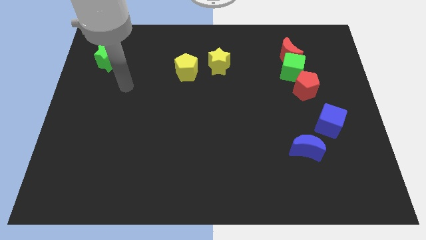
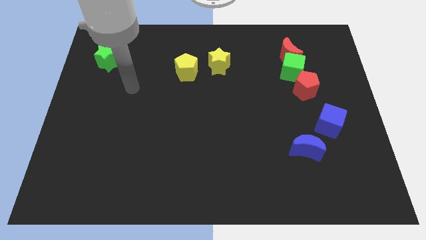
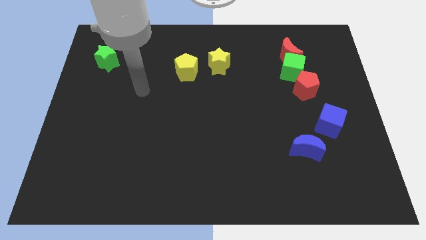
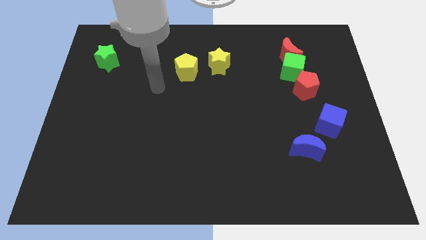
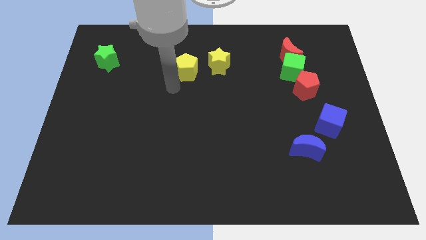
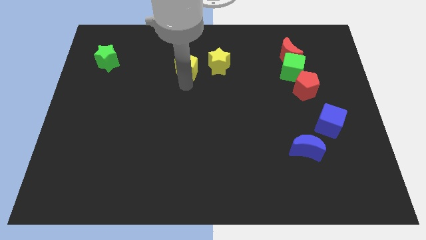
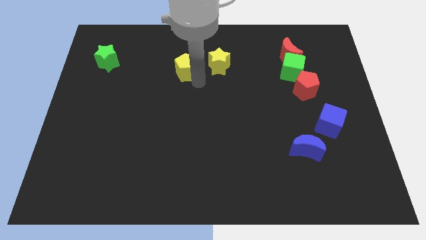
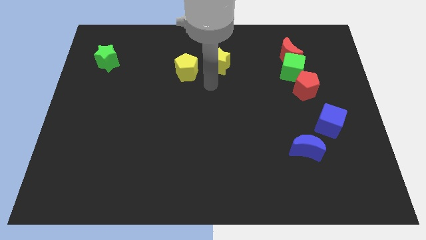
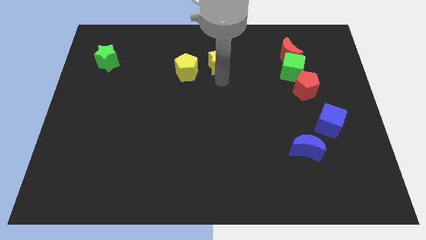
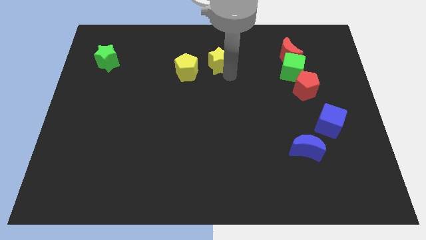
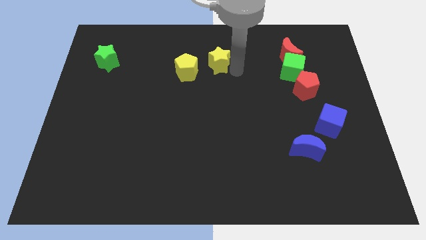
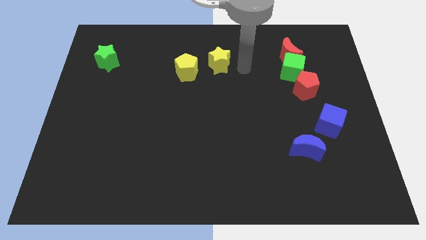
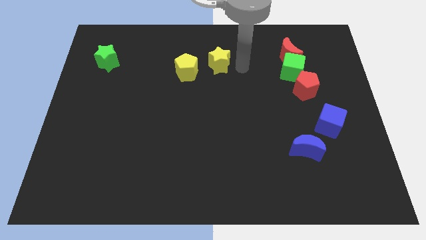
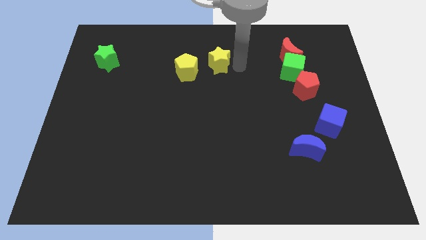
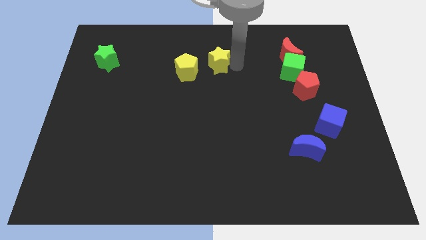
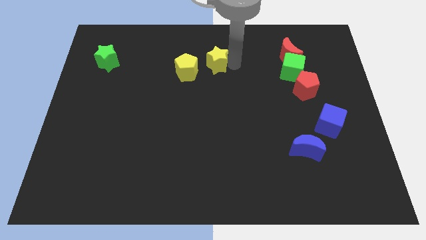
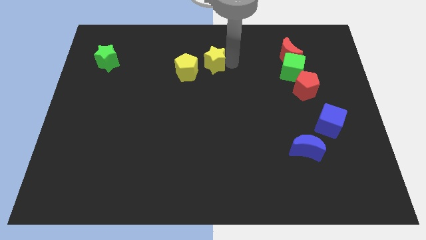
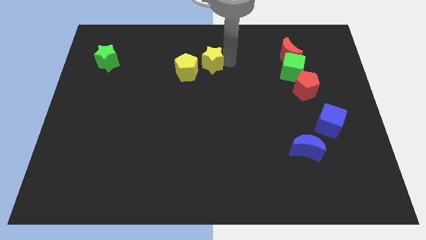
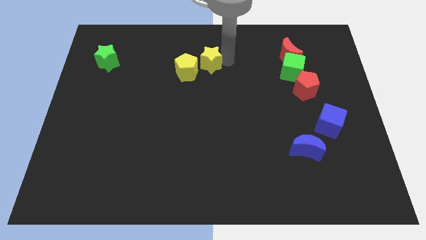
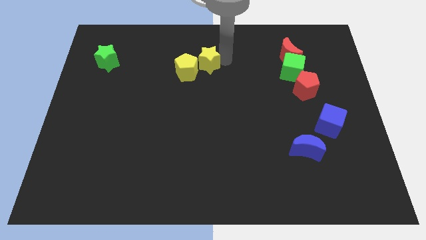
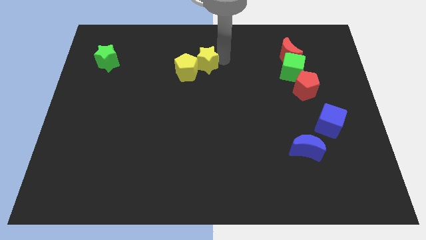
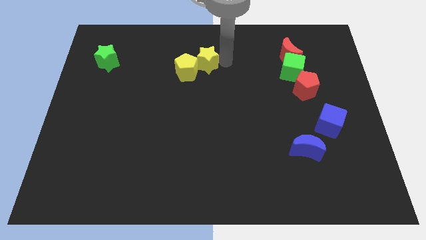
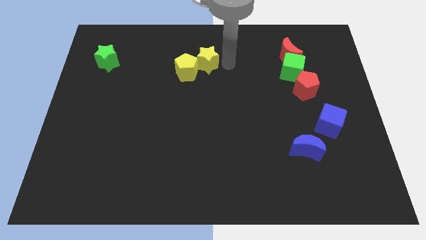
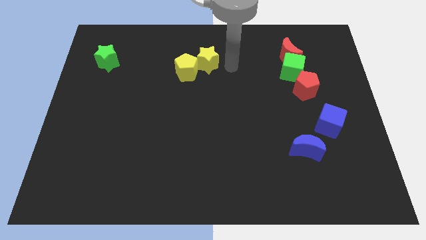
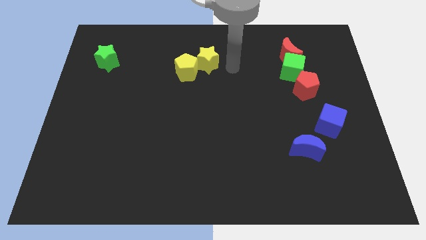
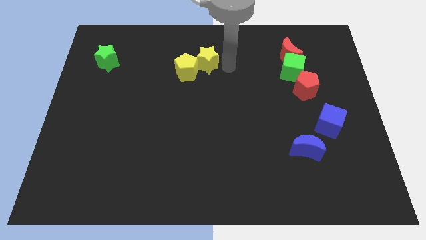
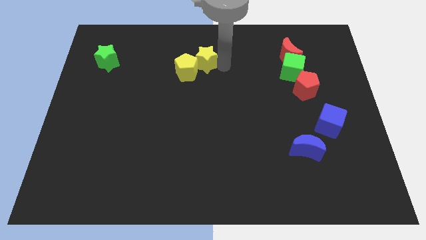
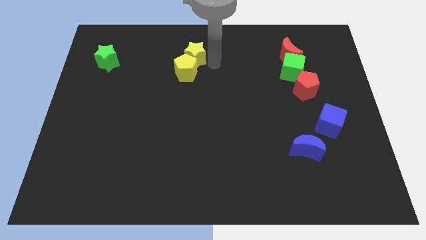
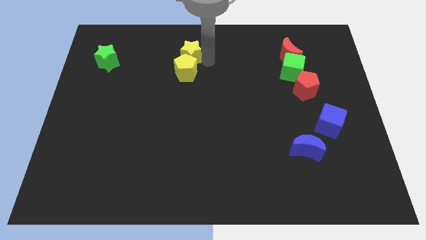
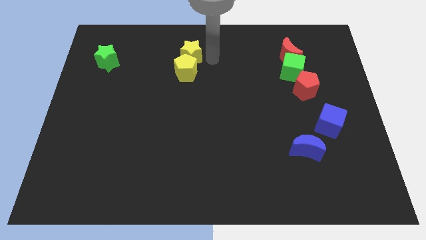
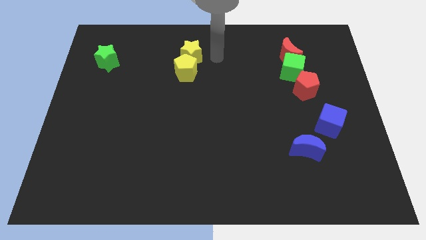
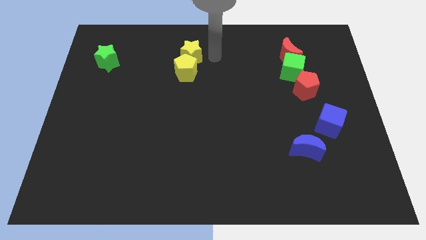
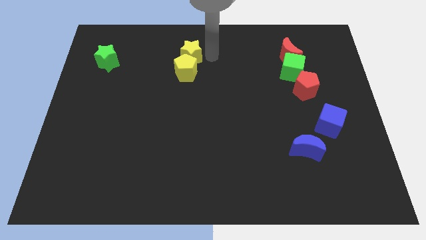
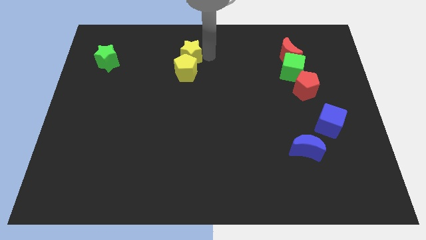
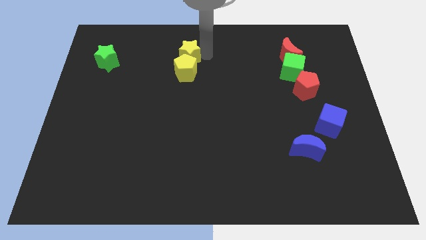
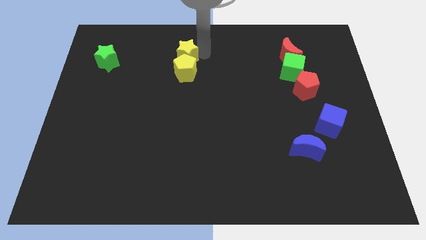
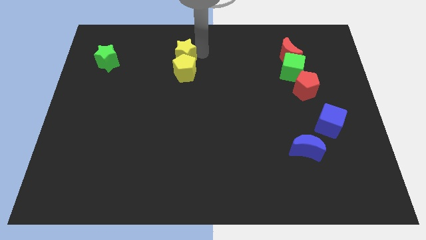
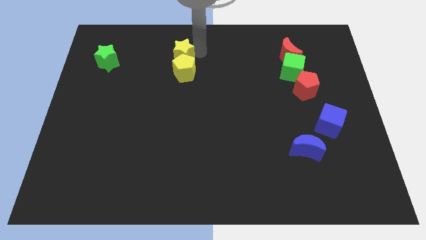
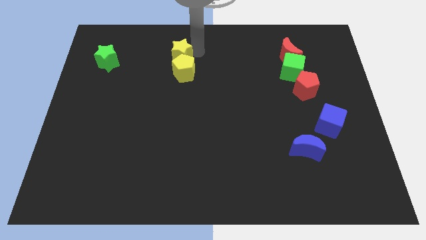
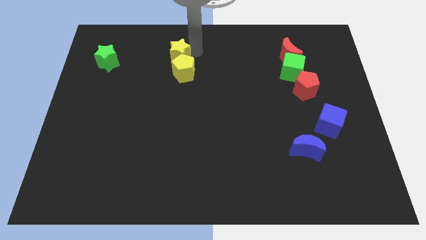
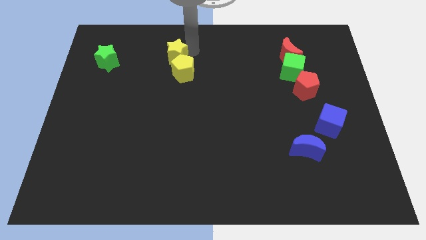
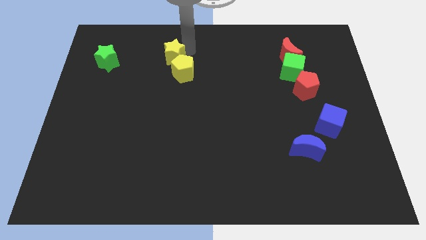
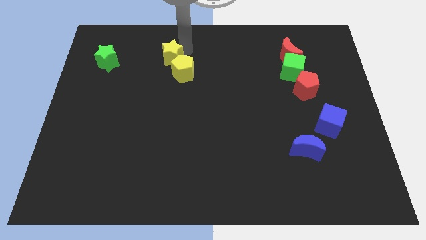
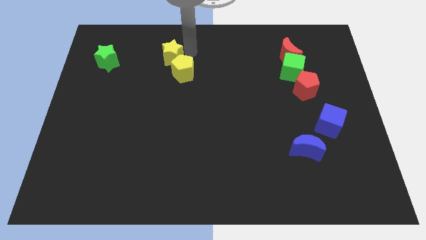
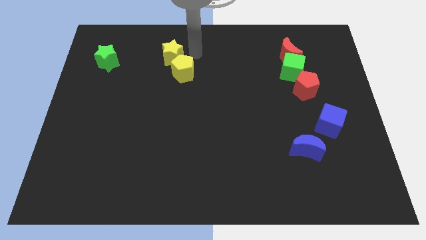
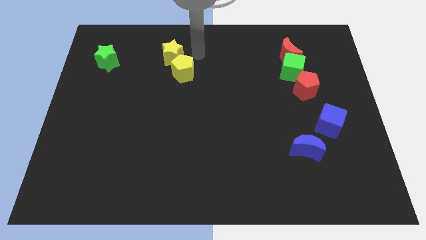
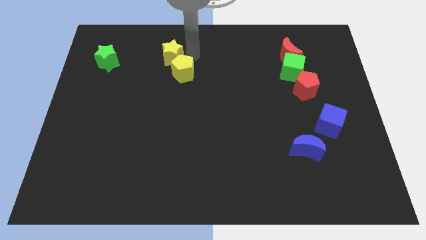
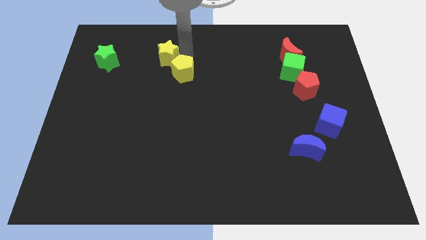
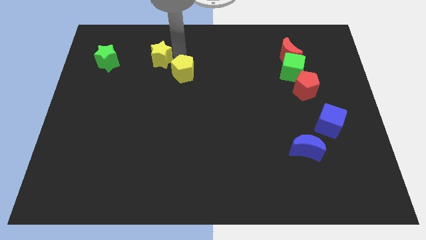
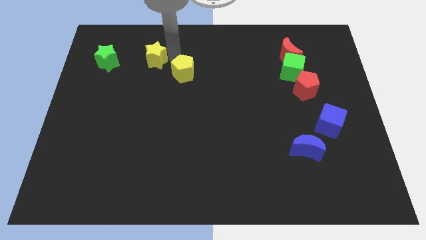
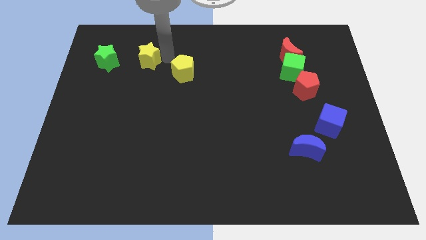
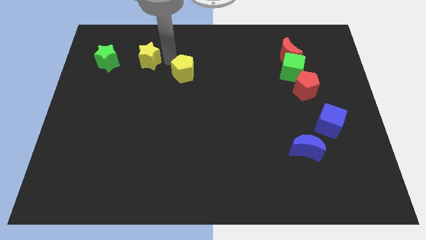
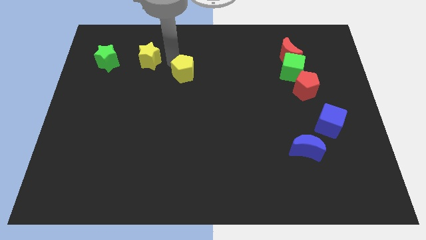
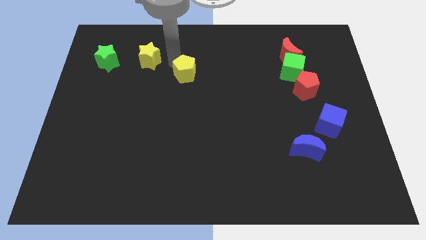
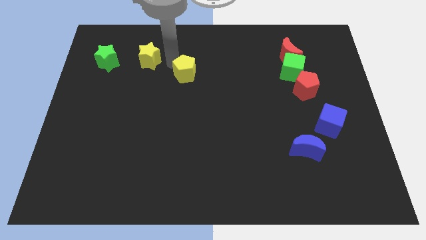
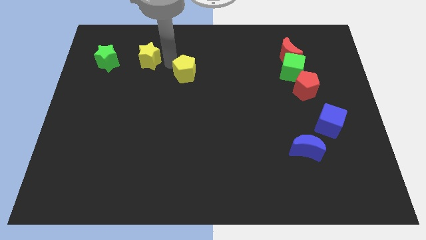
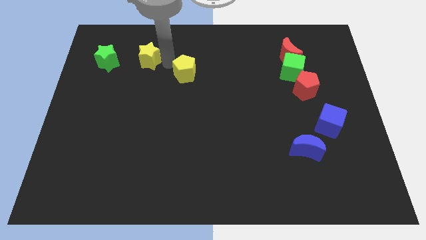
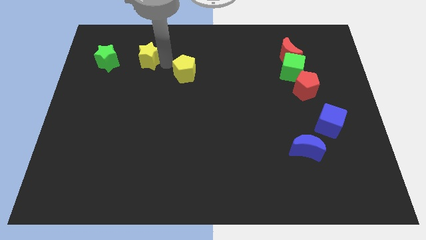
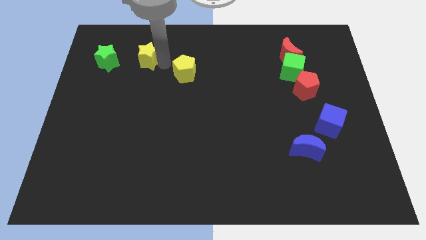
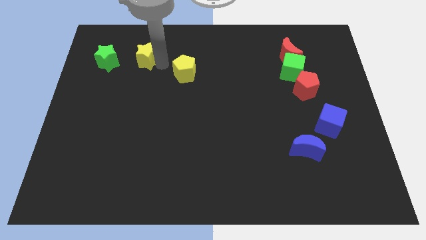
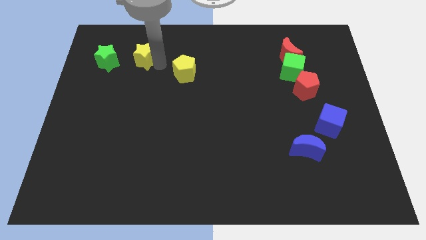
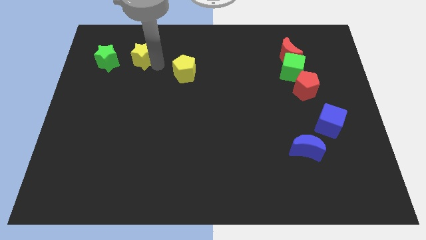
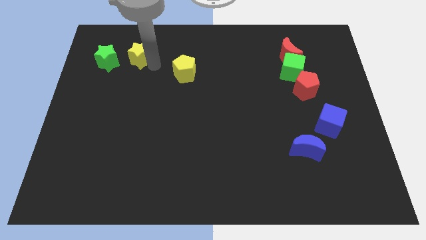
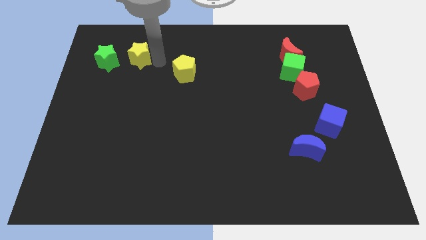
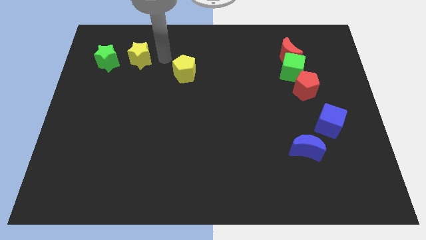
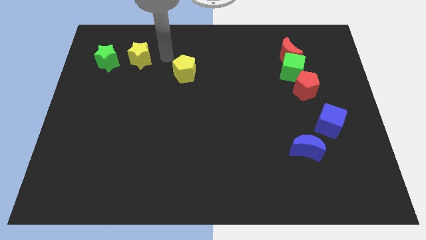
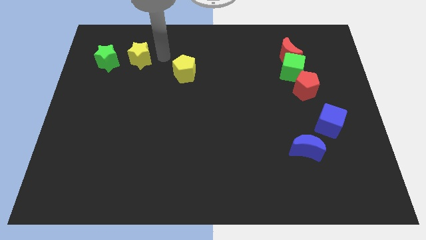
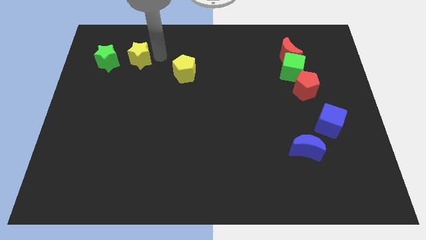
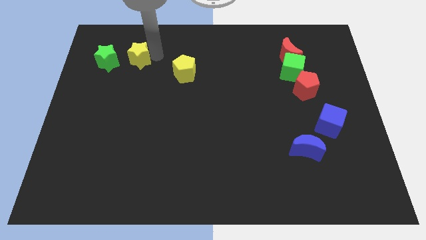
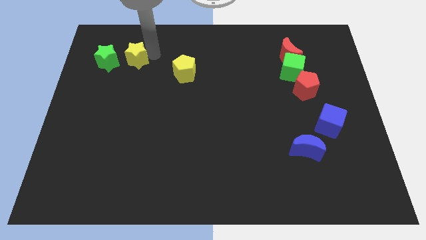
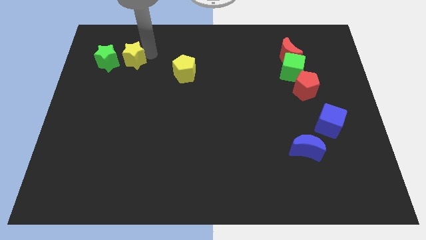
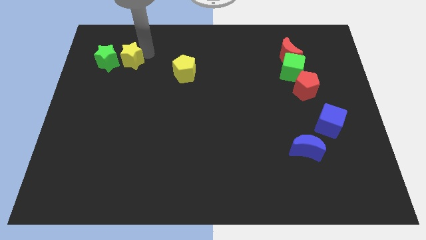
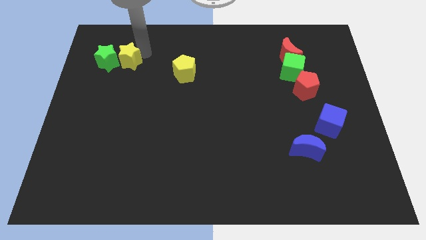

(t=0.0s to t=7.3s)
push the yellow star next to the green star

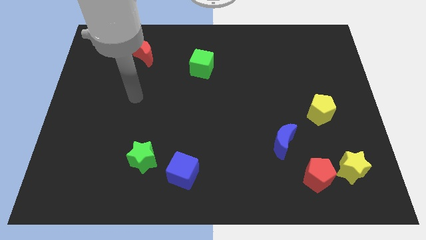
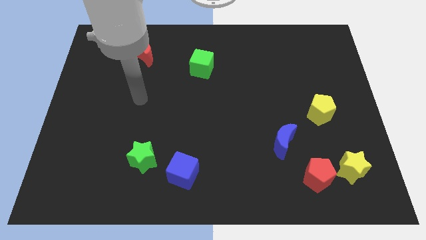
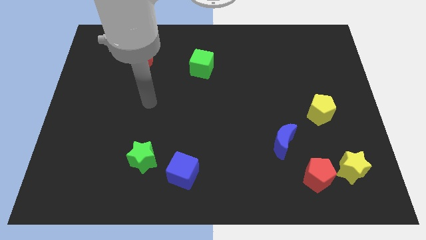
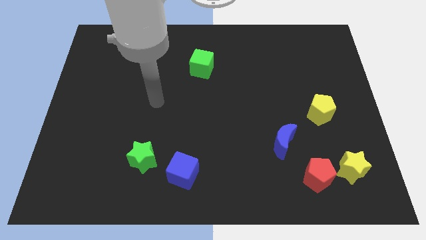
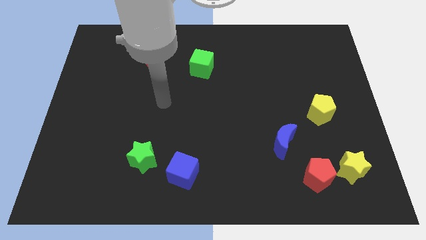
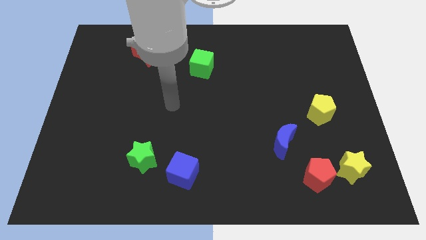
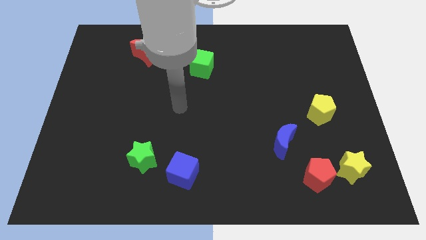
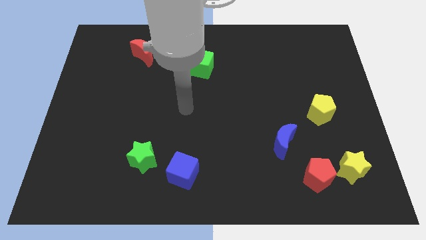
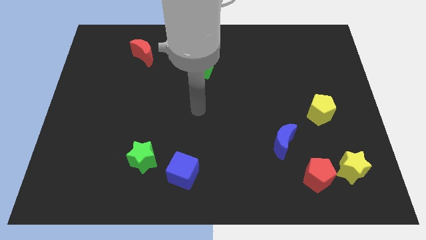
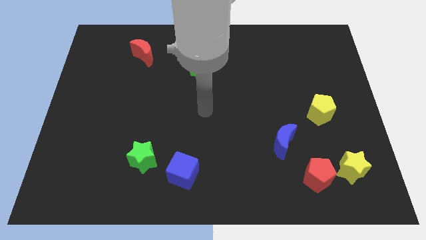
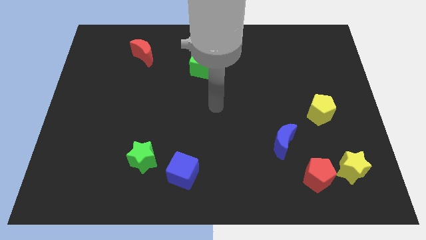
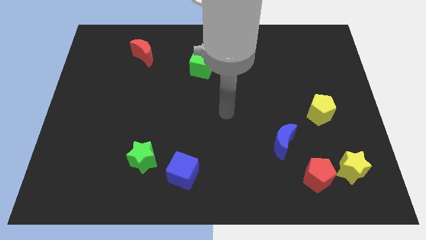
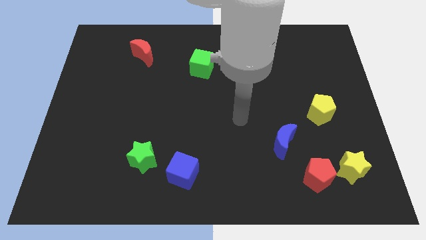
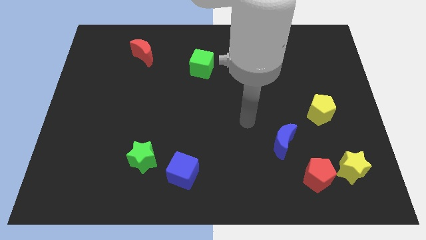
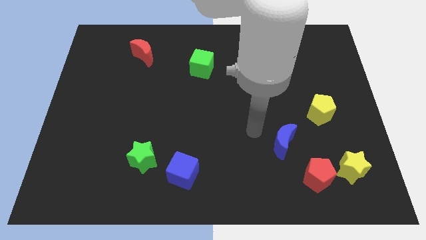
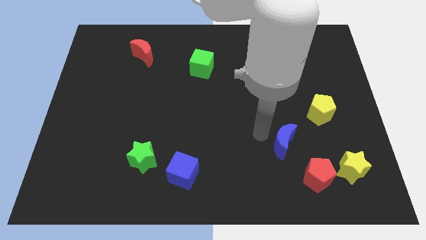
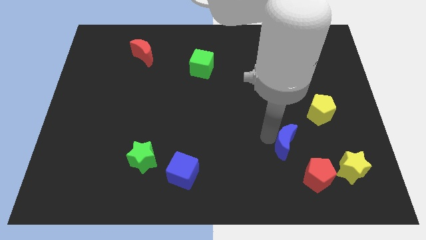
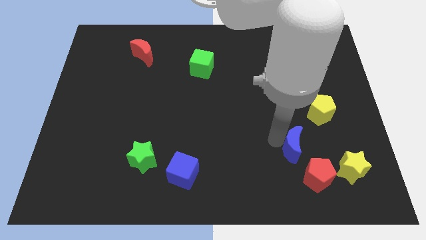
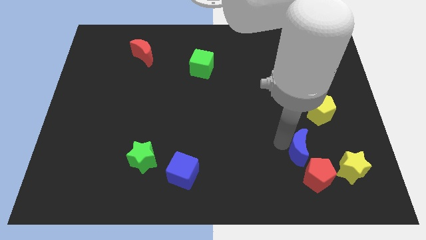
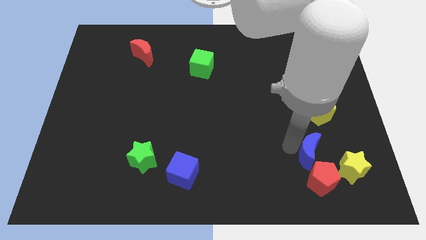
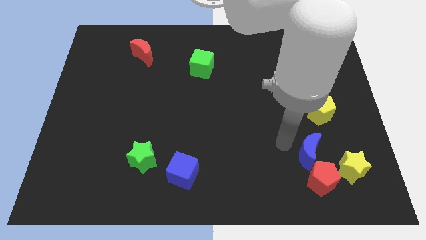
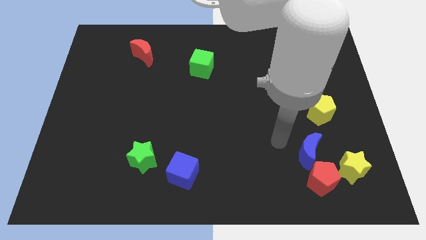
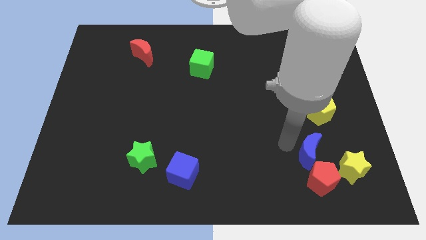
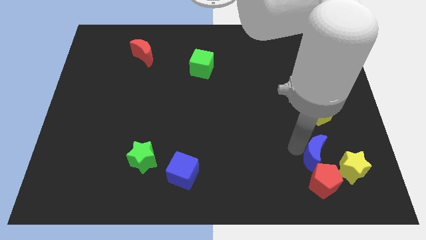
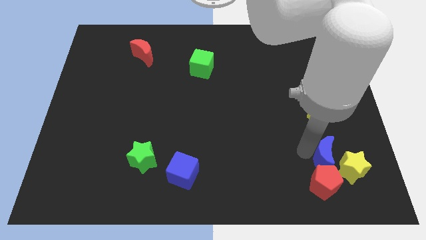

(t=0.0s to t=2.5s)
put the blue moon to the yellow star
